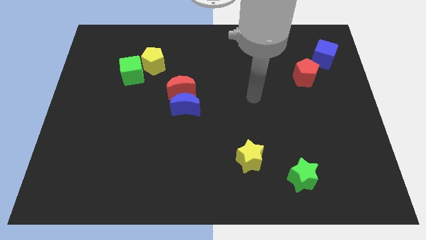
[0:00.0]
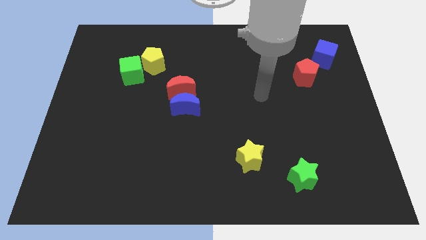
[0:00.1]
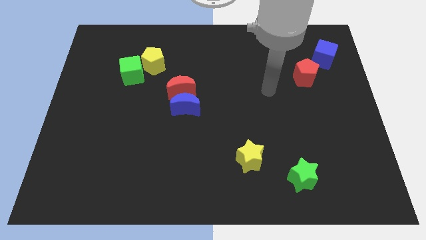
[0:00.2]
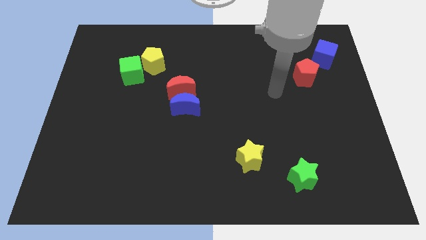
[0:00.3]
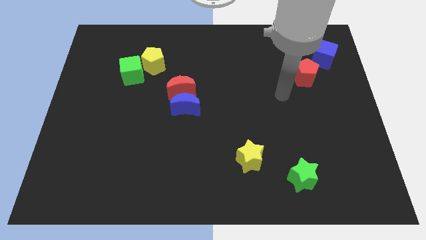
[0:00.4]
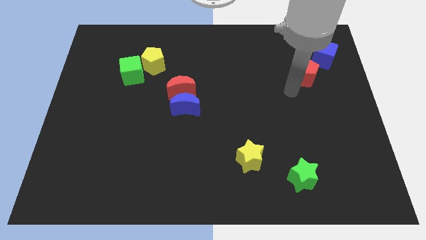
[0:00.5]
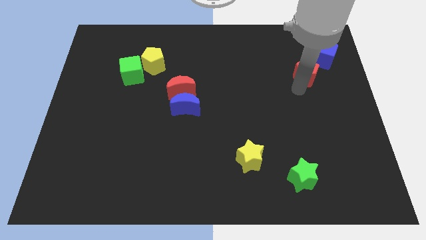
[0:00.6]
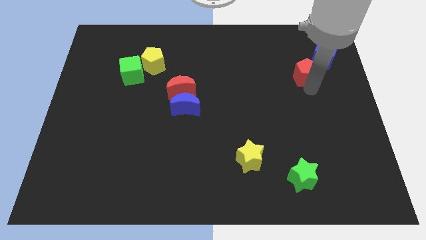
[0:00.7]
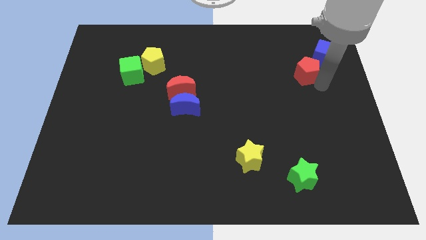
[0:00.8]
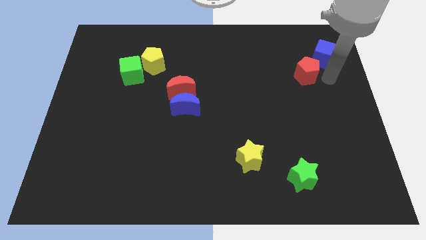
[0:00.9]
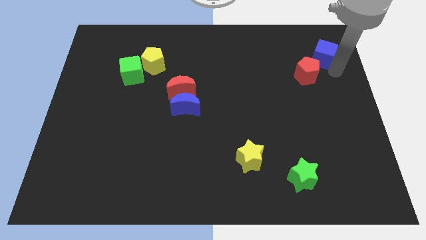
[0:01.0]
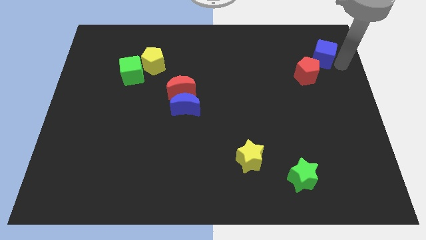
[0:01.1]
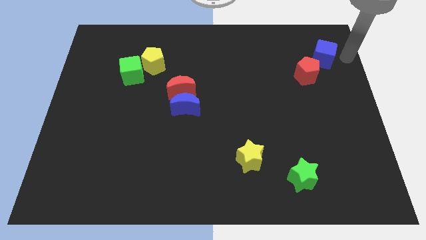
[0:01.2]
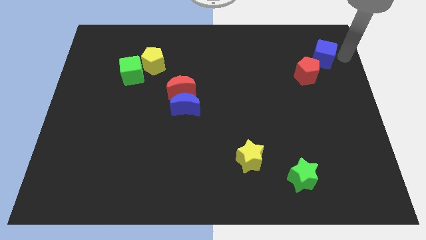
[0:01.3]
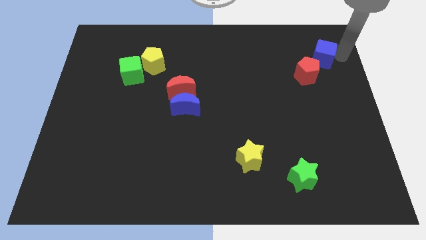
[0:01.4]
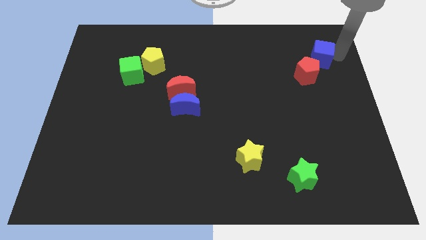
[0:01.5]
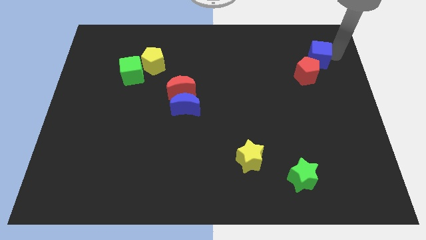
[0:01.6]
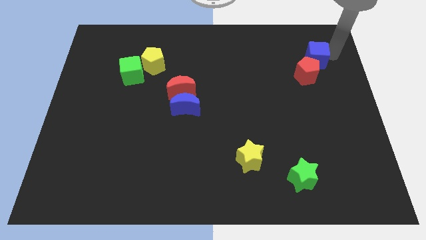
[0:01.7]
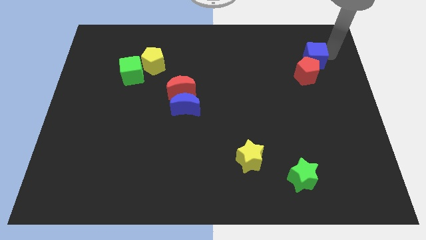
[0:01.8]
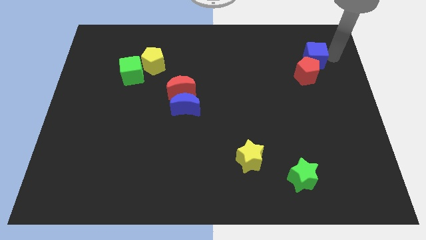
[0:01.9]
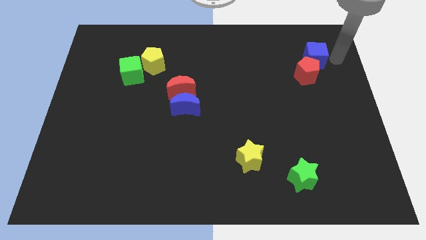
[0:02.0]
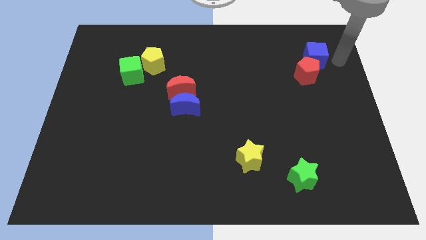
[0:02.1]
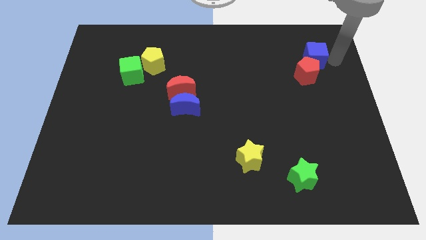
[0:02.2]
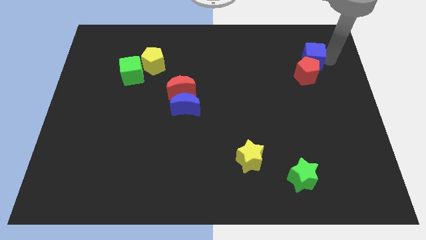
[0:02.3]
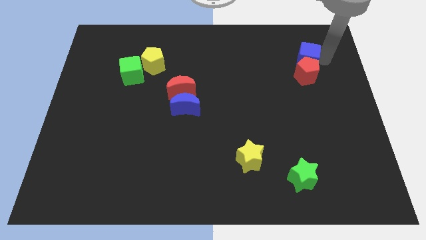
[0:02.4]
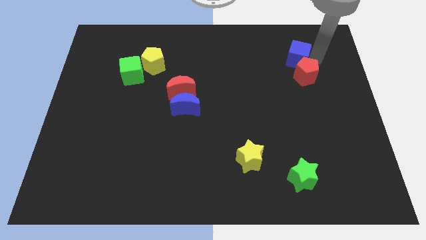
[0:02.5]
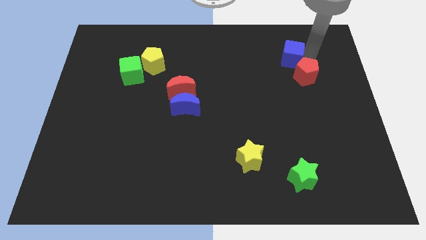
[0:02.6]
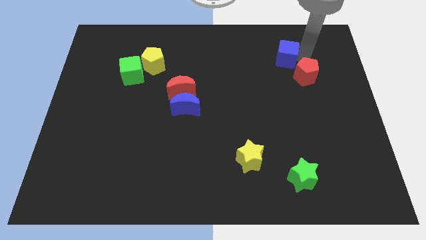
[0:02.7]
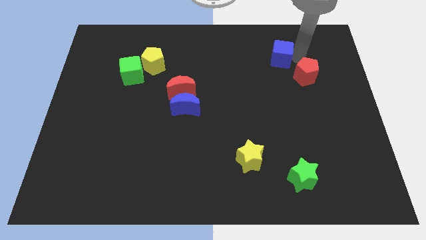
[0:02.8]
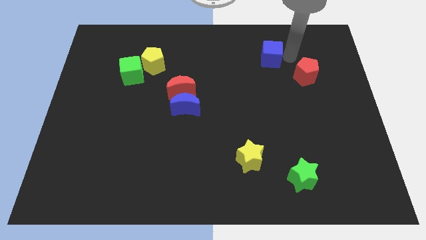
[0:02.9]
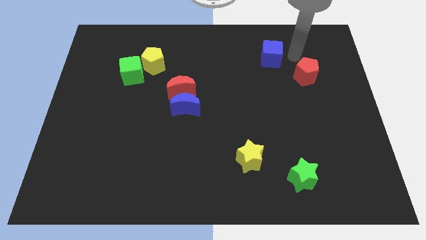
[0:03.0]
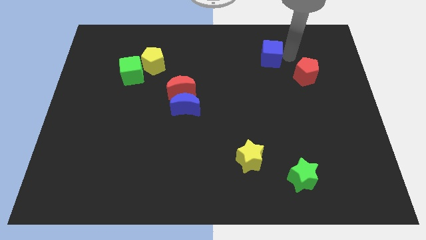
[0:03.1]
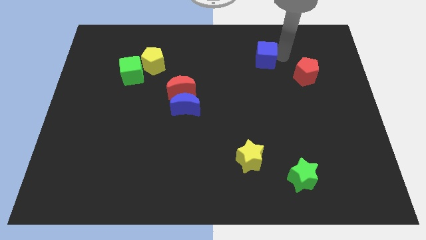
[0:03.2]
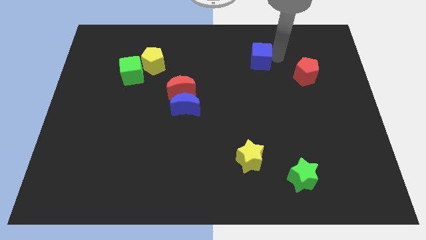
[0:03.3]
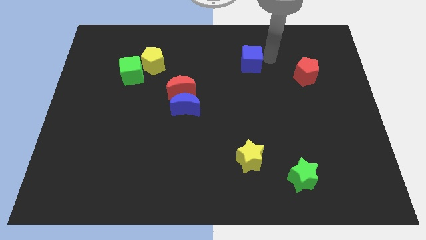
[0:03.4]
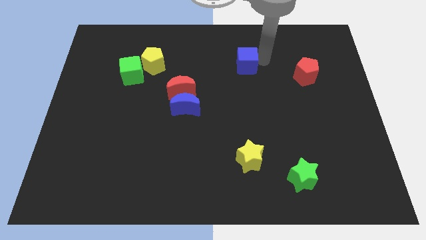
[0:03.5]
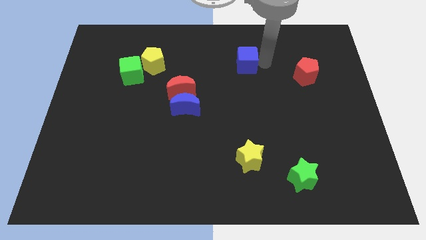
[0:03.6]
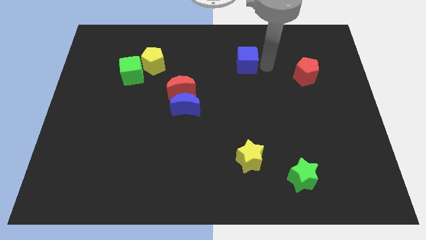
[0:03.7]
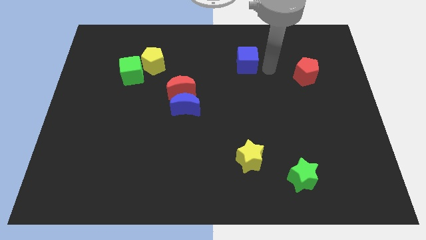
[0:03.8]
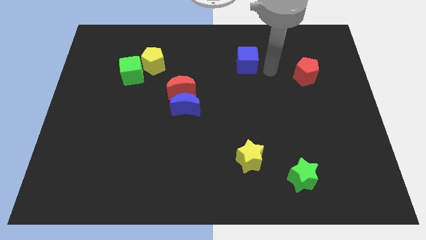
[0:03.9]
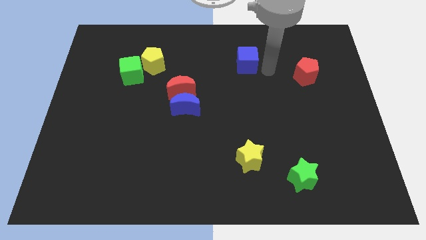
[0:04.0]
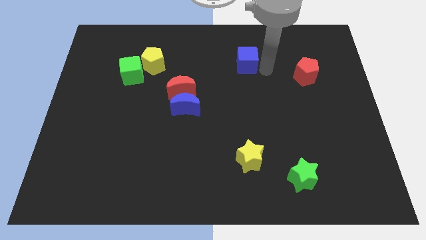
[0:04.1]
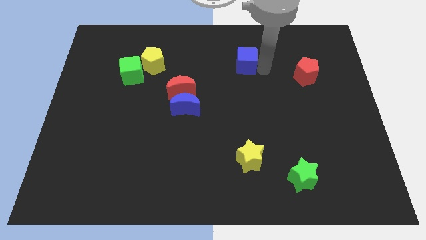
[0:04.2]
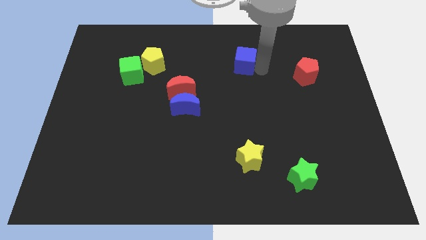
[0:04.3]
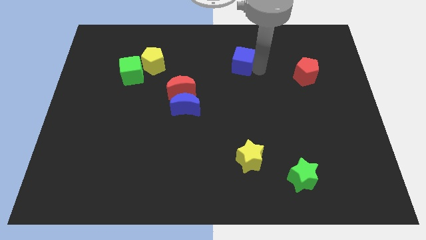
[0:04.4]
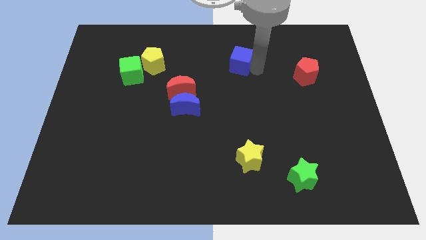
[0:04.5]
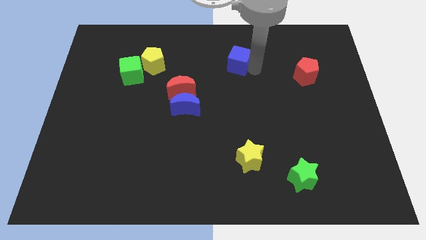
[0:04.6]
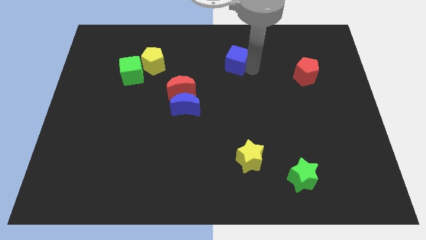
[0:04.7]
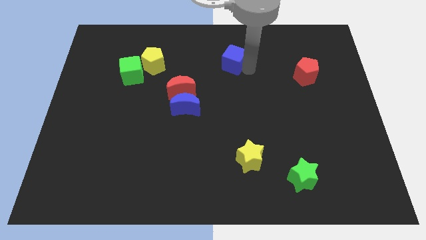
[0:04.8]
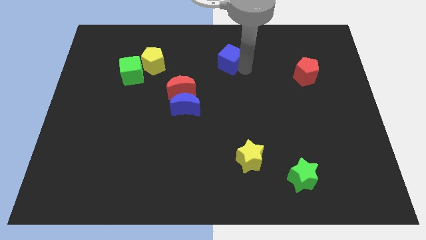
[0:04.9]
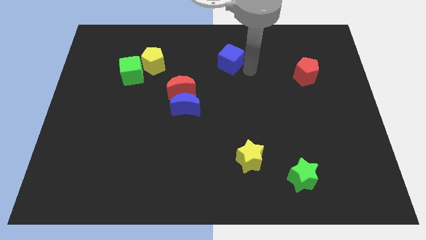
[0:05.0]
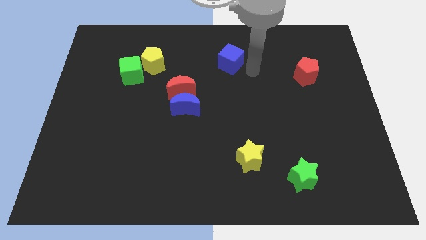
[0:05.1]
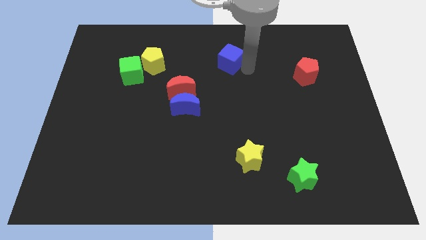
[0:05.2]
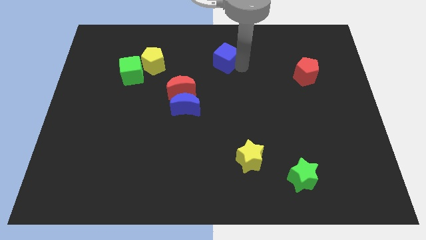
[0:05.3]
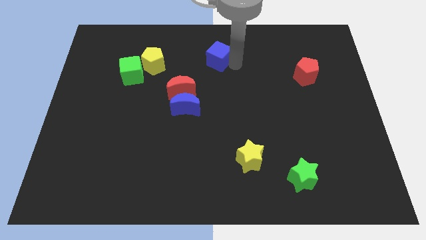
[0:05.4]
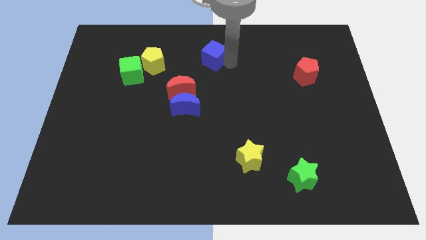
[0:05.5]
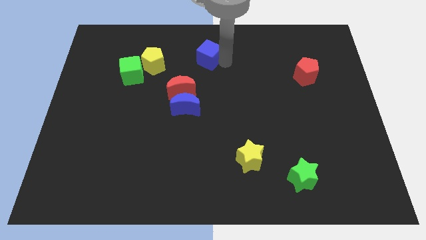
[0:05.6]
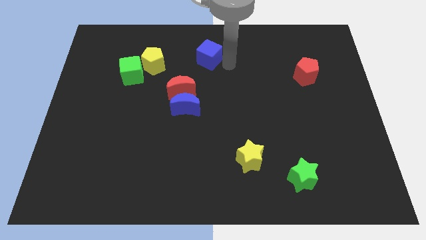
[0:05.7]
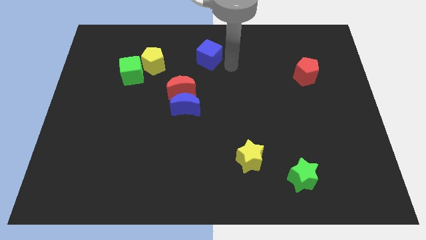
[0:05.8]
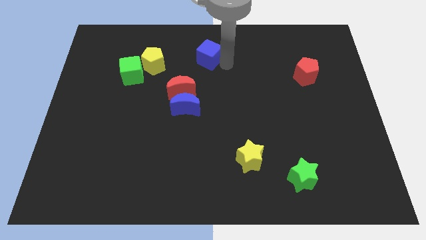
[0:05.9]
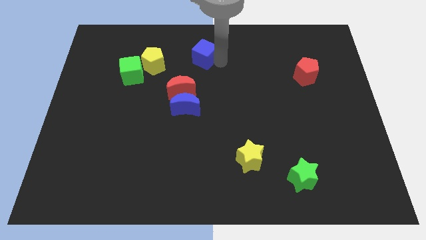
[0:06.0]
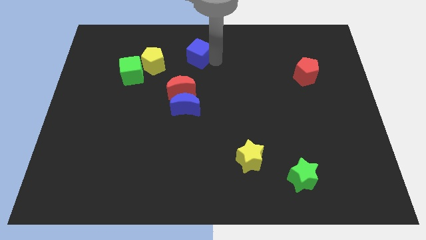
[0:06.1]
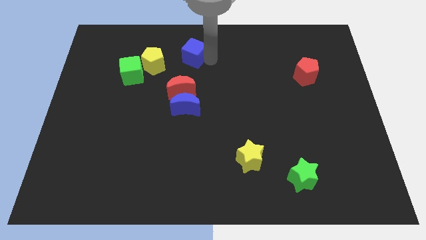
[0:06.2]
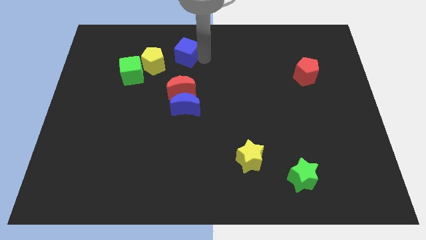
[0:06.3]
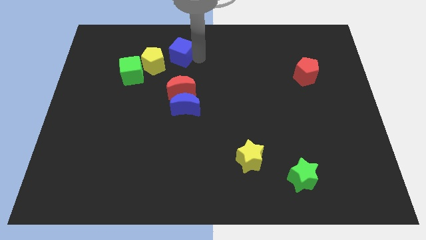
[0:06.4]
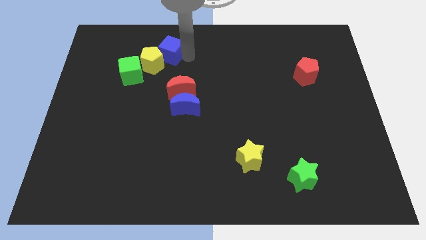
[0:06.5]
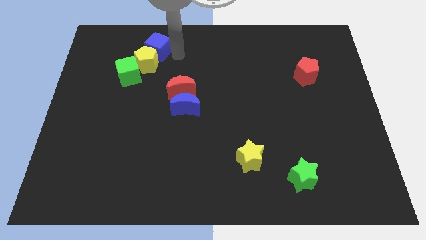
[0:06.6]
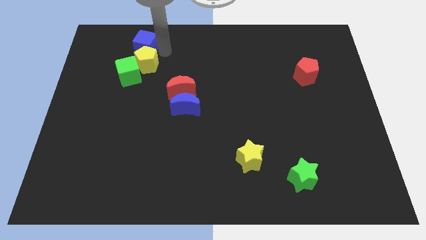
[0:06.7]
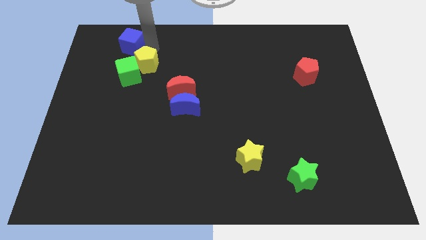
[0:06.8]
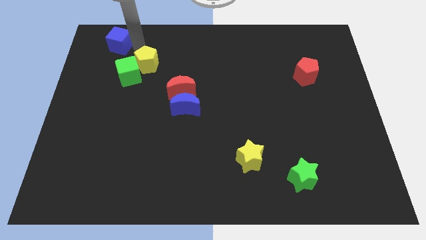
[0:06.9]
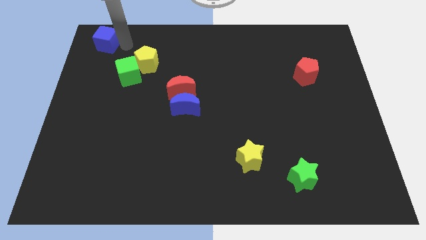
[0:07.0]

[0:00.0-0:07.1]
slide the blue cube to the upper left corner
